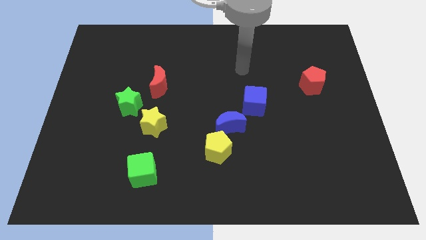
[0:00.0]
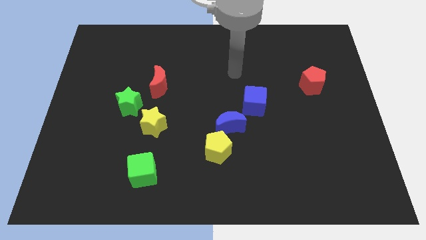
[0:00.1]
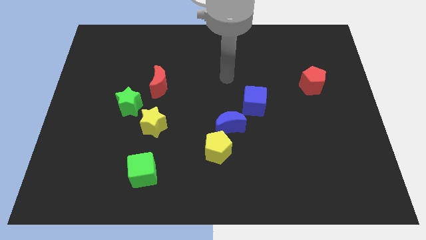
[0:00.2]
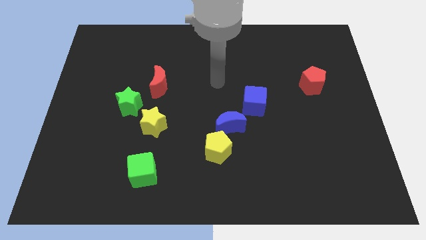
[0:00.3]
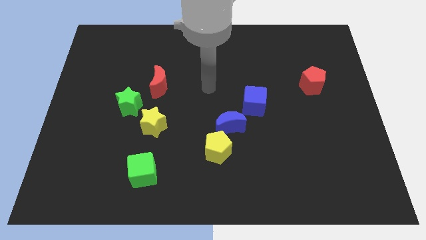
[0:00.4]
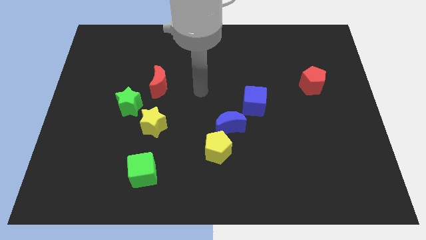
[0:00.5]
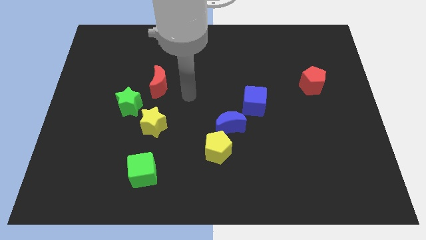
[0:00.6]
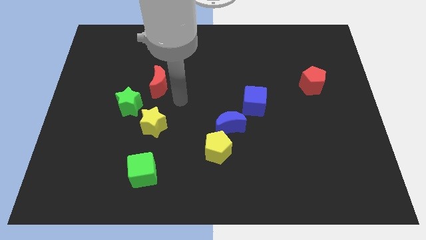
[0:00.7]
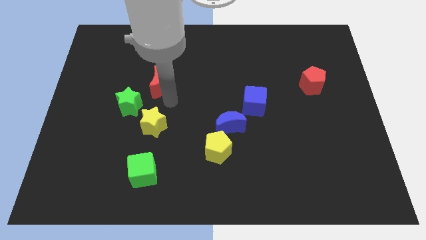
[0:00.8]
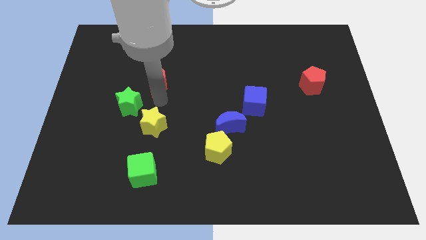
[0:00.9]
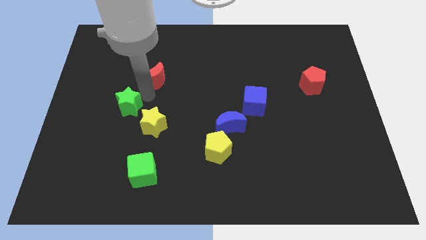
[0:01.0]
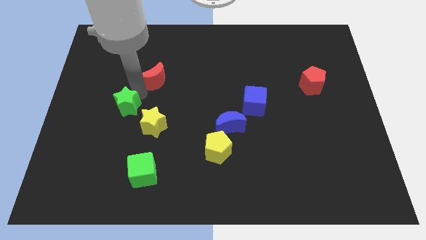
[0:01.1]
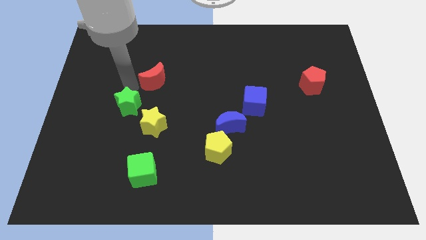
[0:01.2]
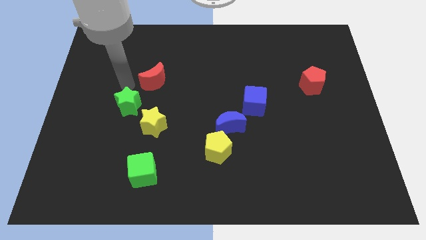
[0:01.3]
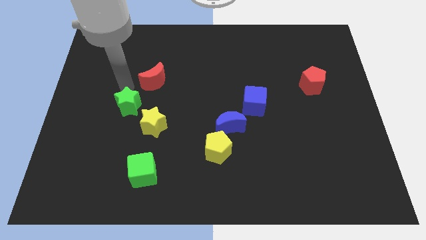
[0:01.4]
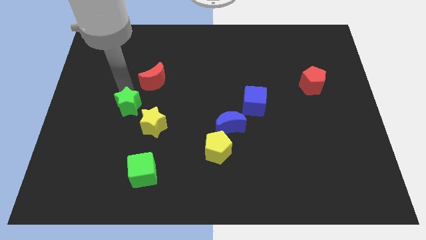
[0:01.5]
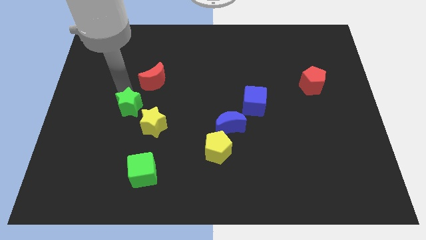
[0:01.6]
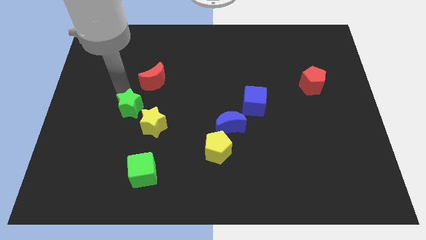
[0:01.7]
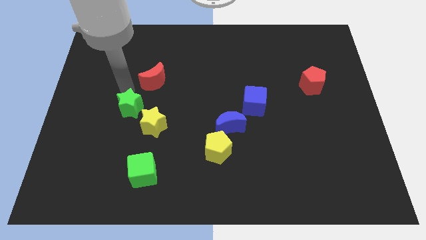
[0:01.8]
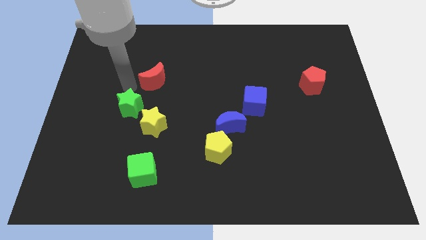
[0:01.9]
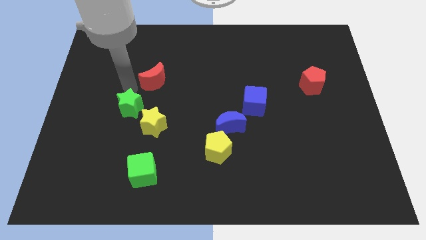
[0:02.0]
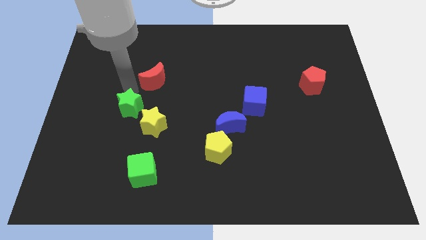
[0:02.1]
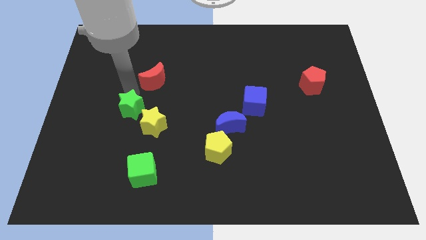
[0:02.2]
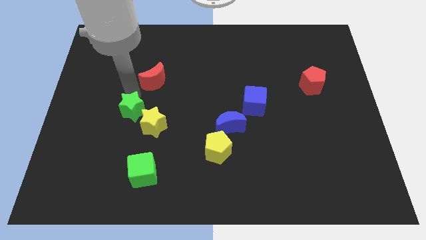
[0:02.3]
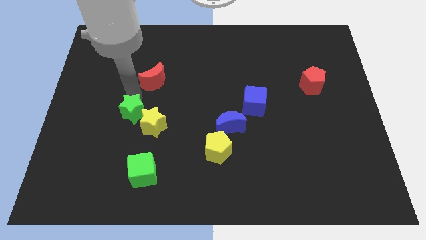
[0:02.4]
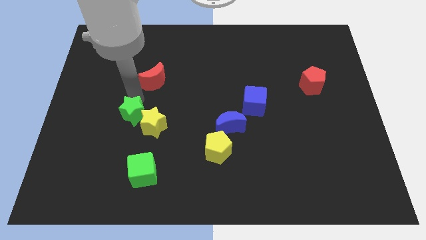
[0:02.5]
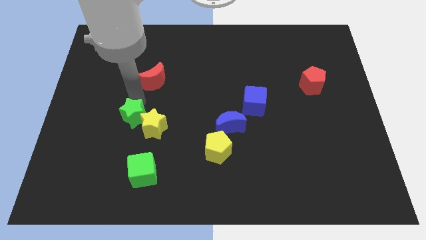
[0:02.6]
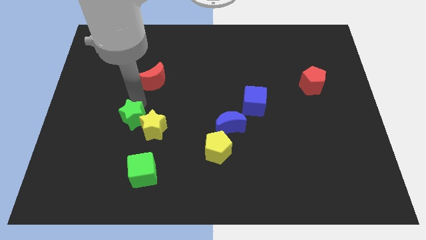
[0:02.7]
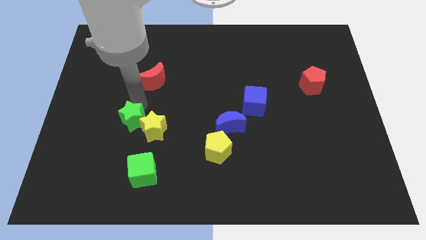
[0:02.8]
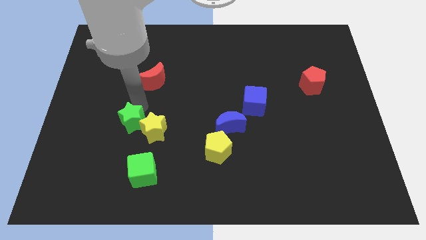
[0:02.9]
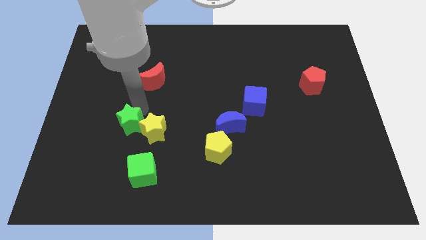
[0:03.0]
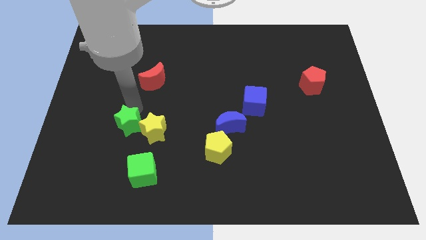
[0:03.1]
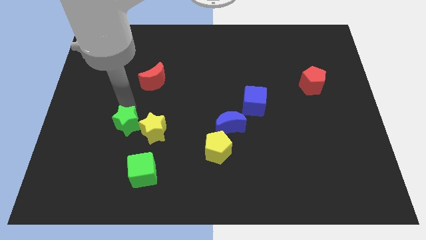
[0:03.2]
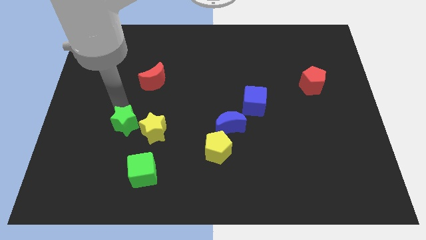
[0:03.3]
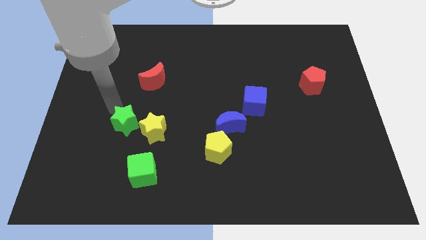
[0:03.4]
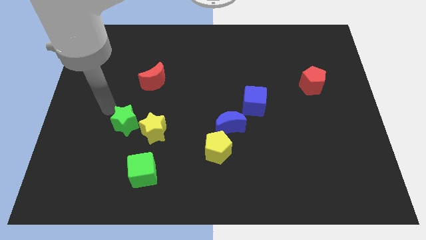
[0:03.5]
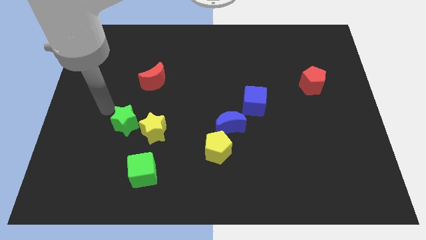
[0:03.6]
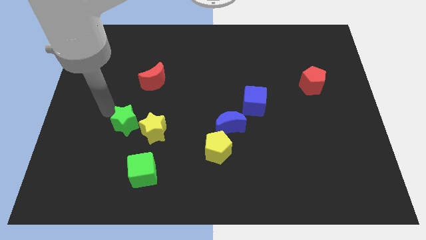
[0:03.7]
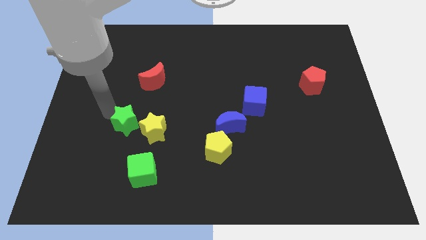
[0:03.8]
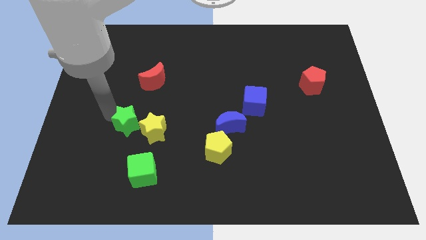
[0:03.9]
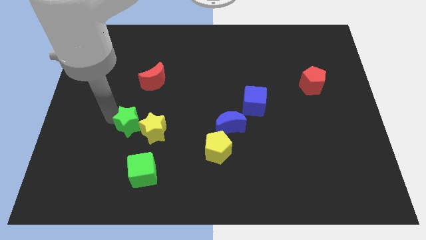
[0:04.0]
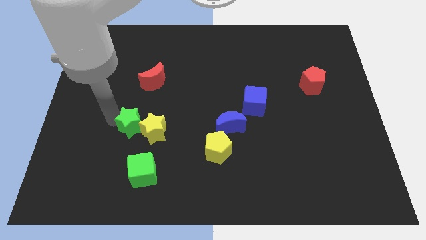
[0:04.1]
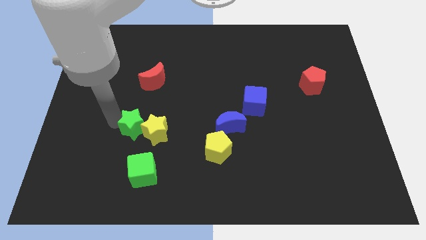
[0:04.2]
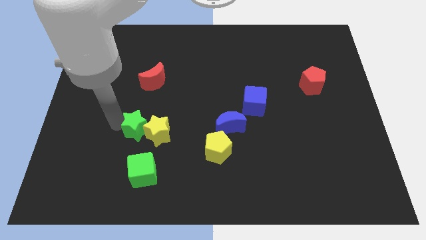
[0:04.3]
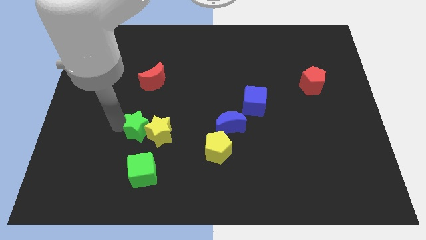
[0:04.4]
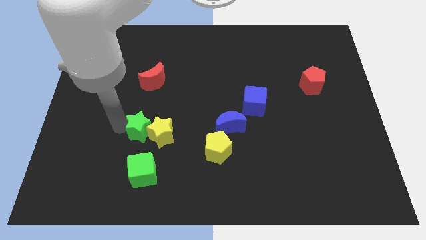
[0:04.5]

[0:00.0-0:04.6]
slightly push the green star downwards and to the right diagonally

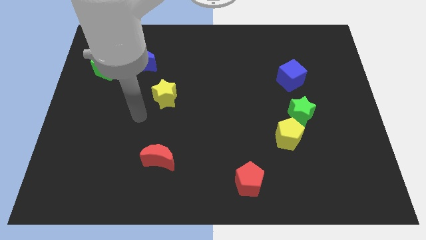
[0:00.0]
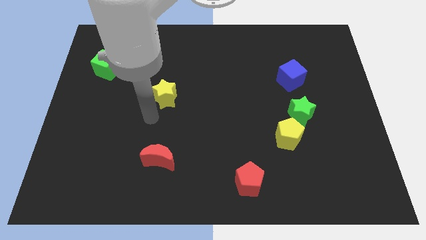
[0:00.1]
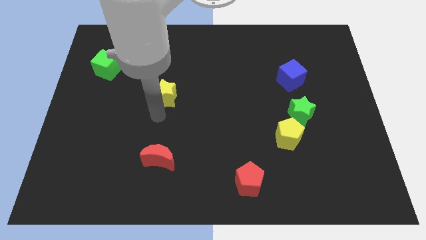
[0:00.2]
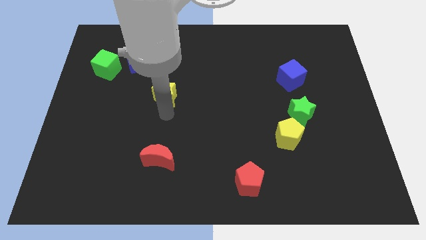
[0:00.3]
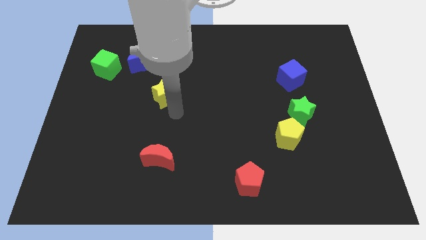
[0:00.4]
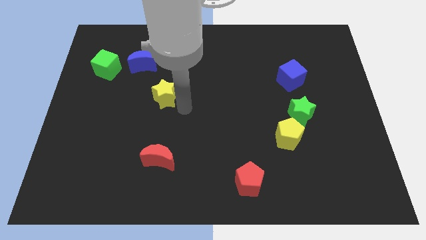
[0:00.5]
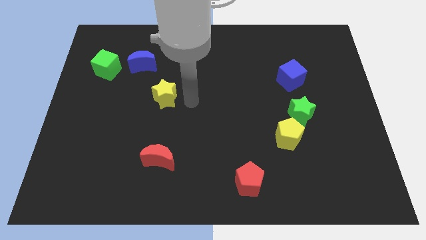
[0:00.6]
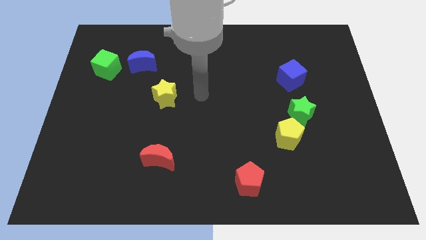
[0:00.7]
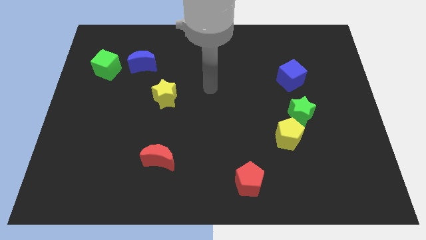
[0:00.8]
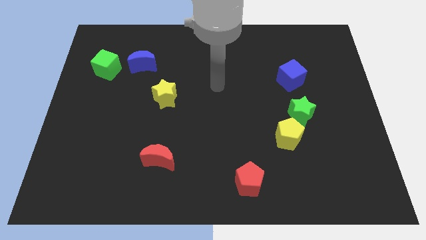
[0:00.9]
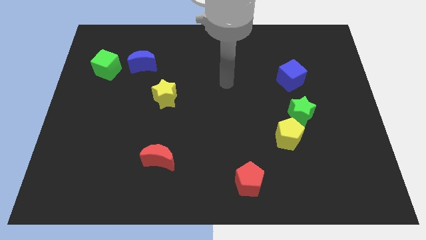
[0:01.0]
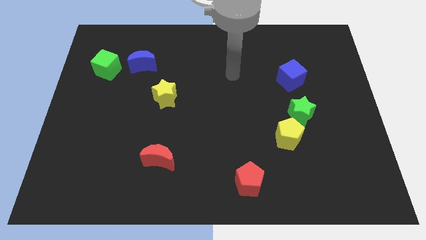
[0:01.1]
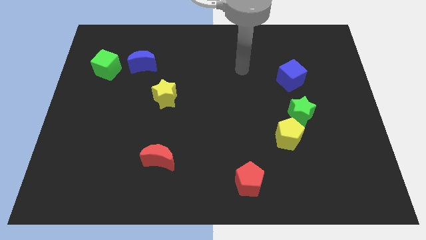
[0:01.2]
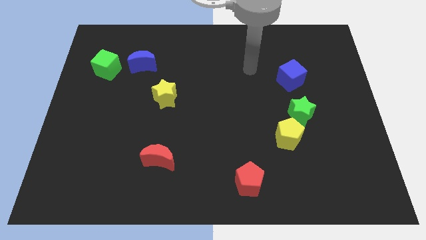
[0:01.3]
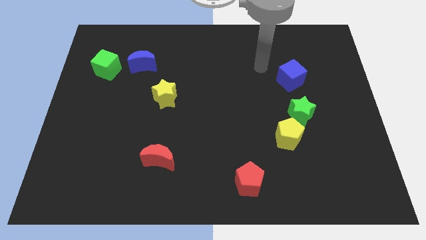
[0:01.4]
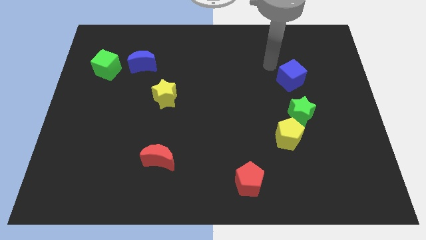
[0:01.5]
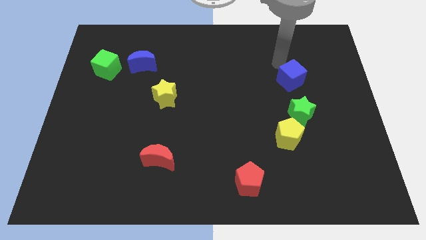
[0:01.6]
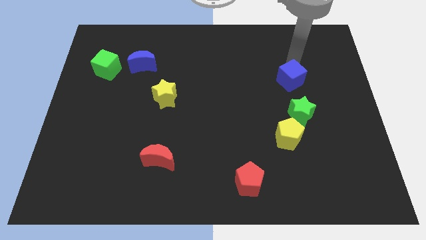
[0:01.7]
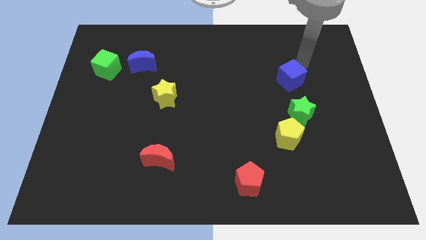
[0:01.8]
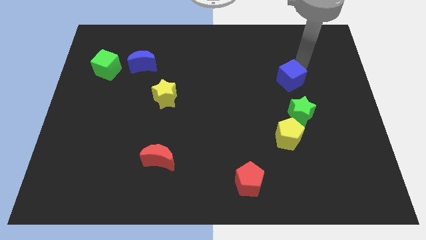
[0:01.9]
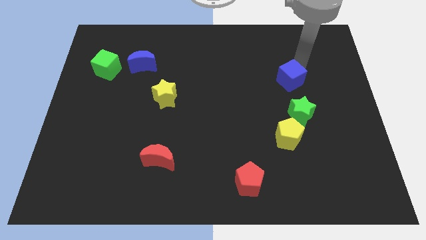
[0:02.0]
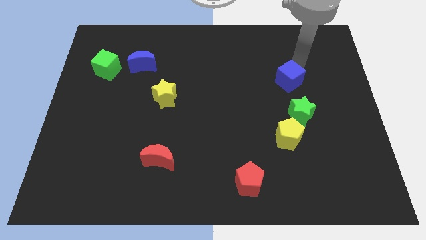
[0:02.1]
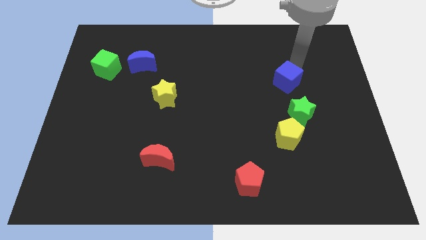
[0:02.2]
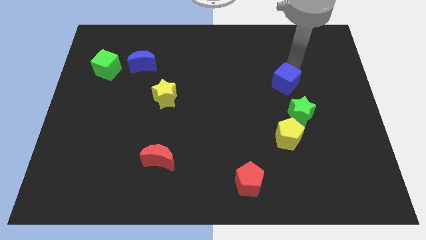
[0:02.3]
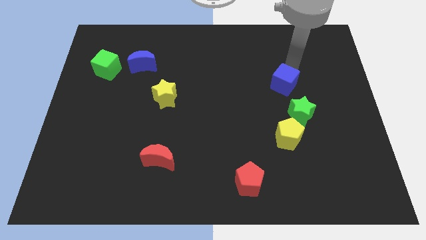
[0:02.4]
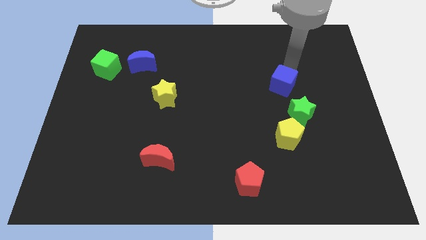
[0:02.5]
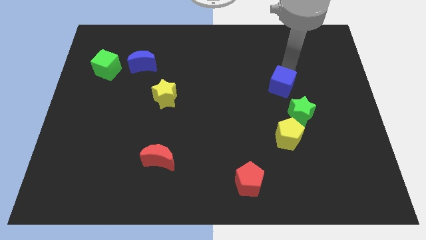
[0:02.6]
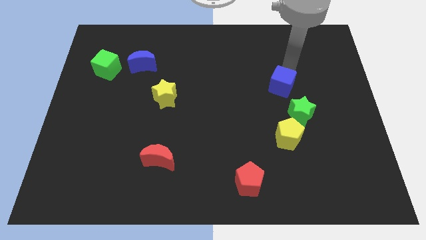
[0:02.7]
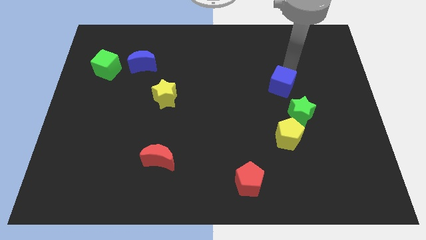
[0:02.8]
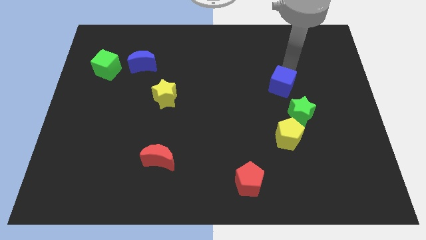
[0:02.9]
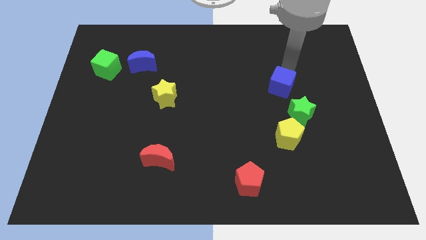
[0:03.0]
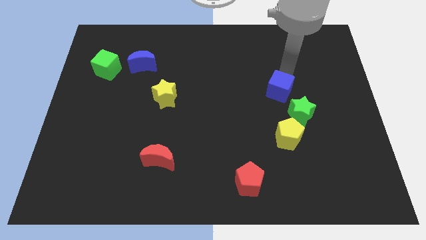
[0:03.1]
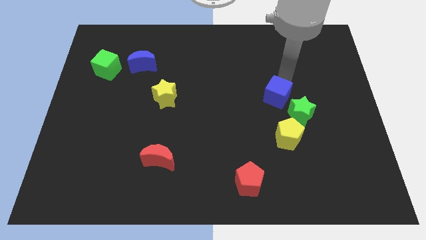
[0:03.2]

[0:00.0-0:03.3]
slide the blue cube down and then to the left a little

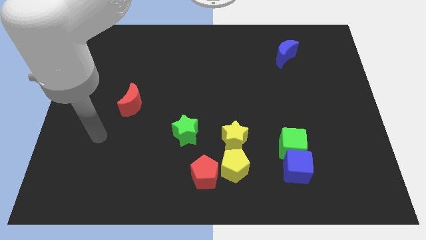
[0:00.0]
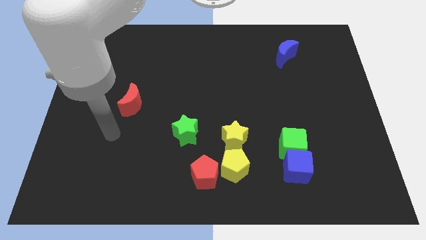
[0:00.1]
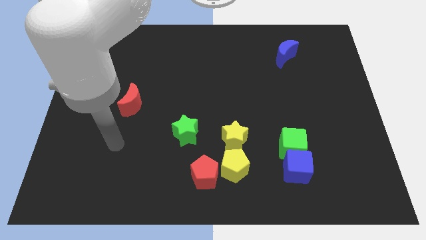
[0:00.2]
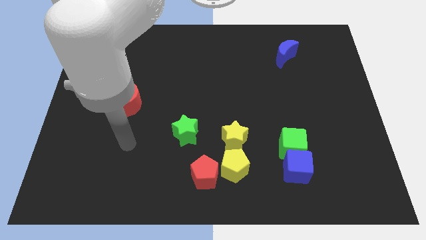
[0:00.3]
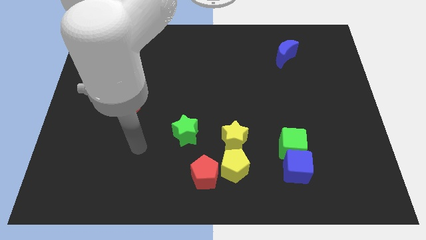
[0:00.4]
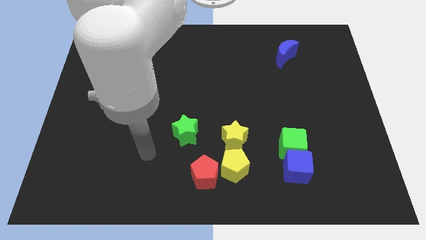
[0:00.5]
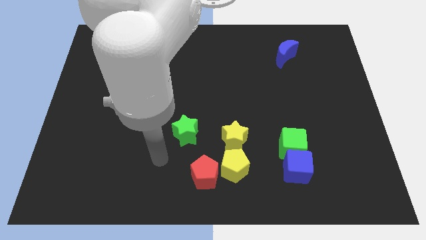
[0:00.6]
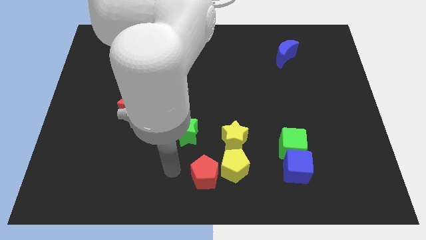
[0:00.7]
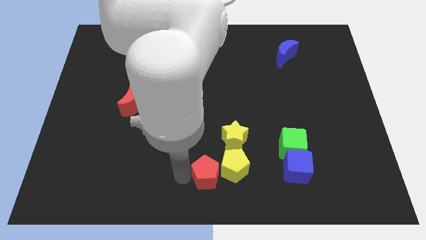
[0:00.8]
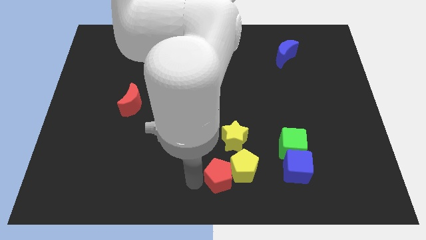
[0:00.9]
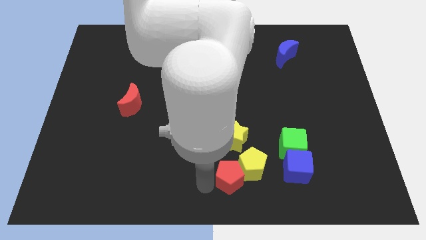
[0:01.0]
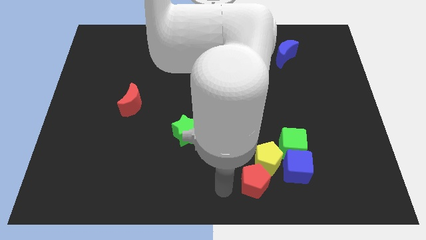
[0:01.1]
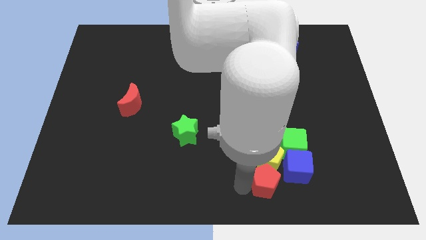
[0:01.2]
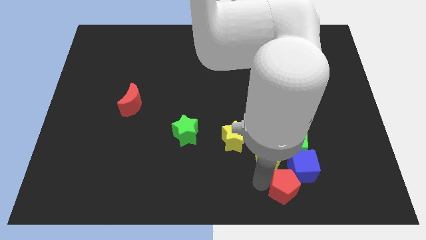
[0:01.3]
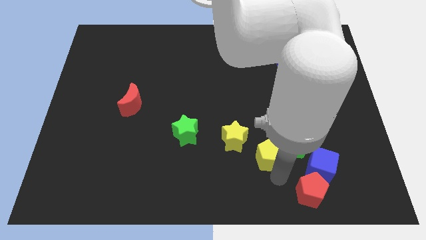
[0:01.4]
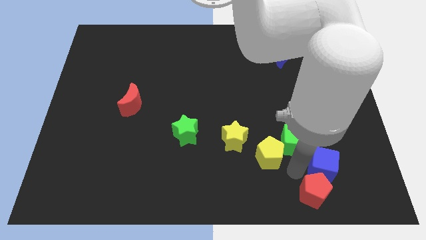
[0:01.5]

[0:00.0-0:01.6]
slightly push the yellow pentagon diagonally up and right
